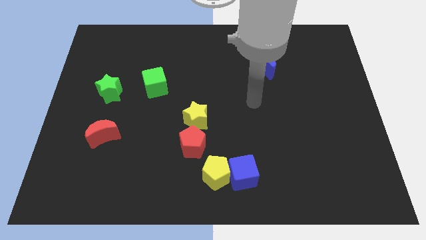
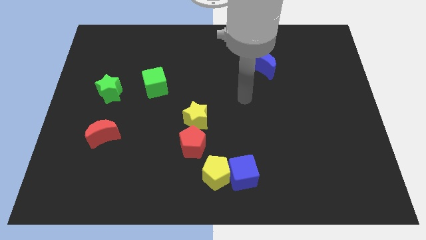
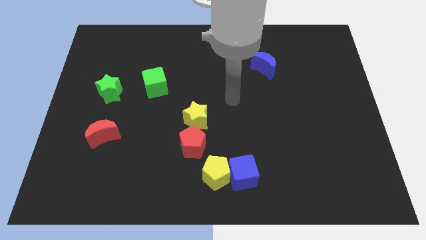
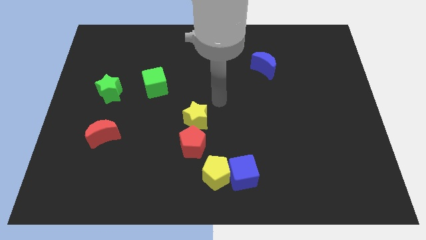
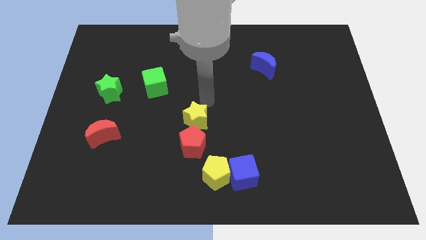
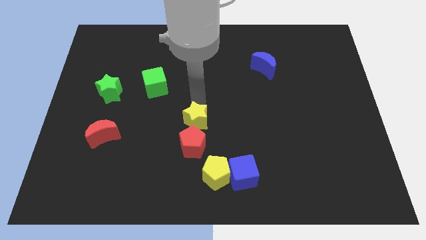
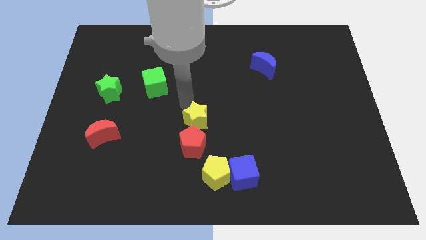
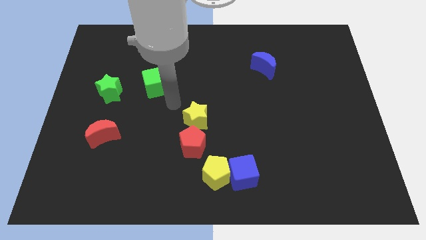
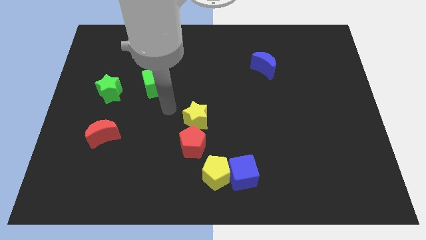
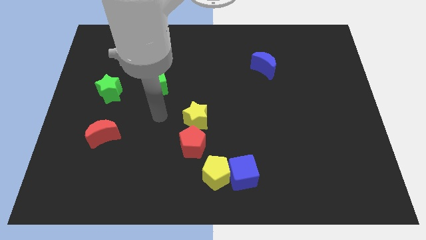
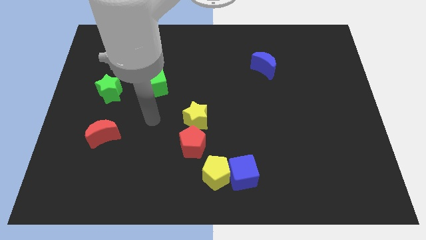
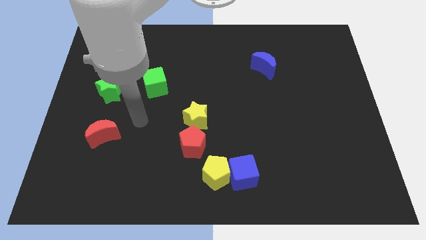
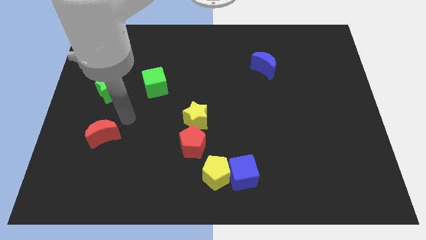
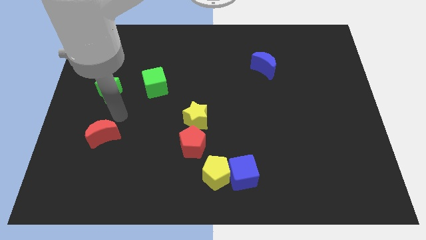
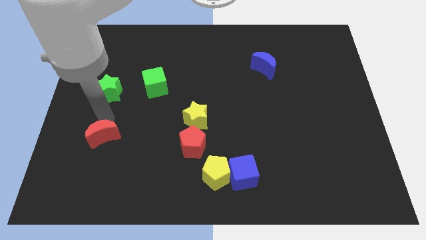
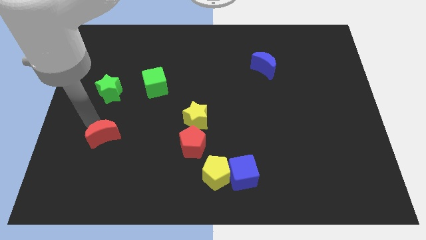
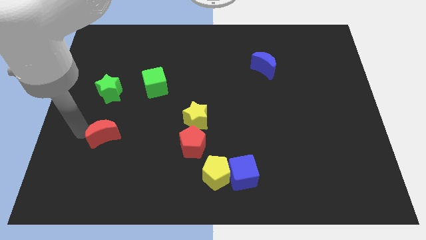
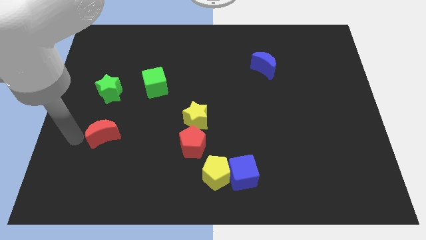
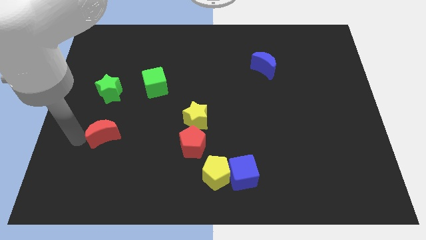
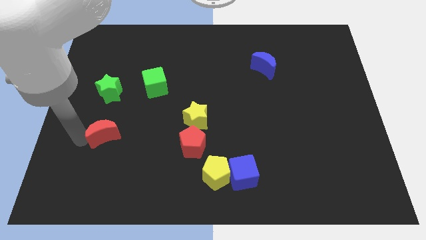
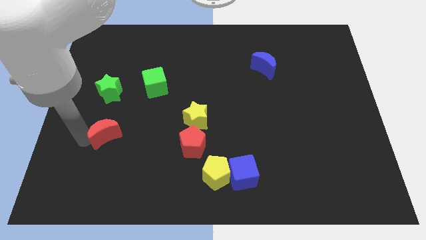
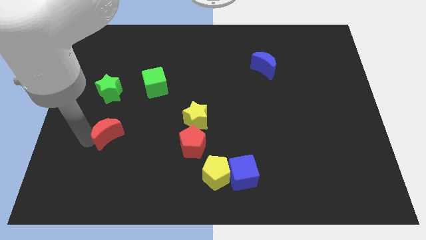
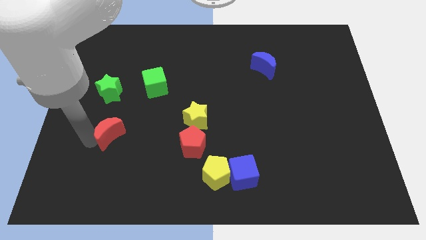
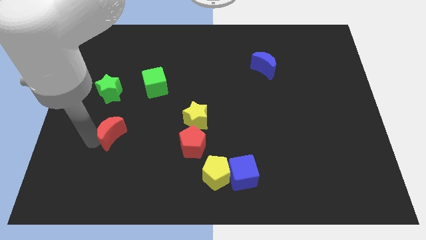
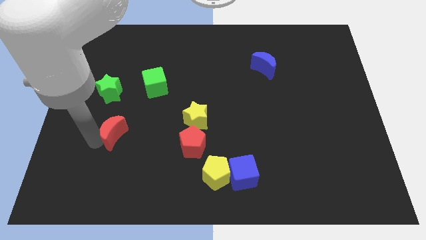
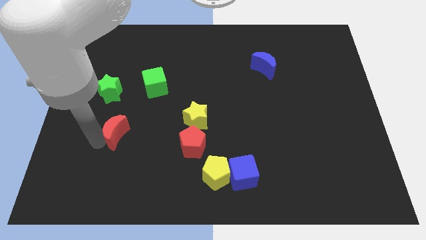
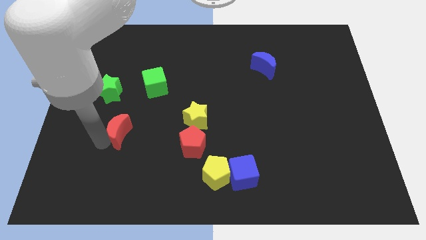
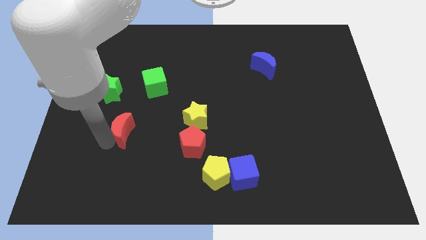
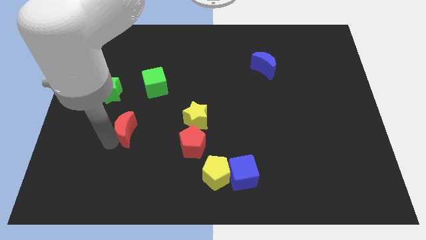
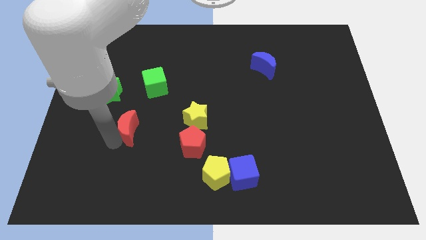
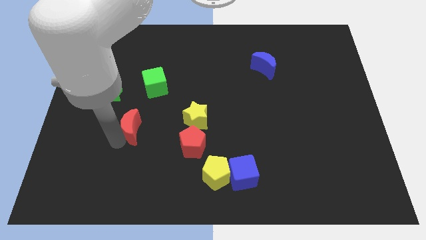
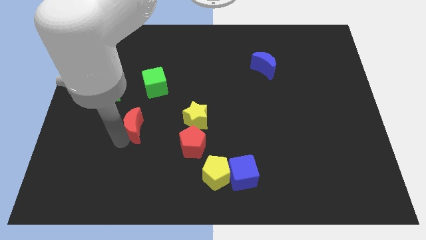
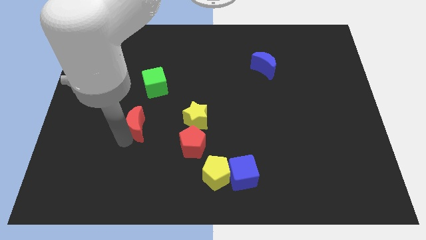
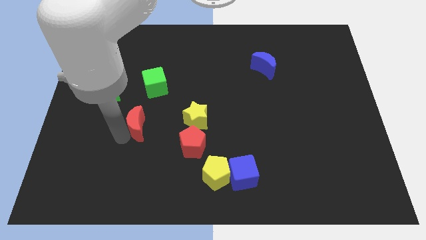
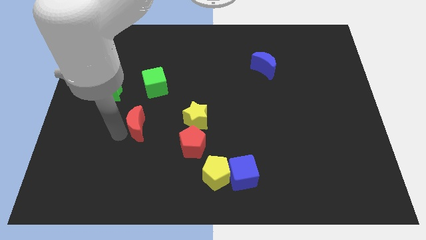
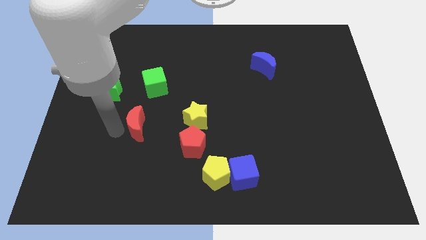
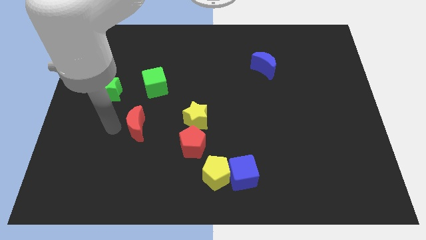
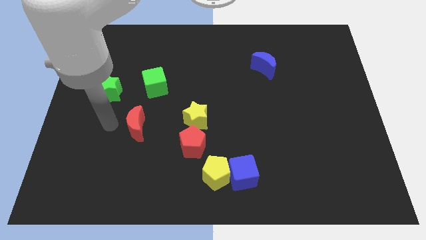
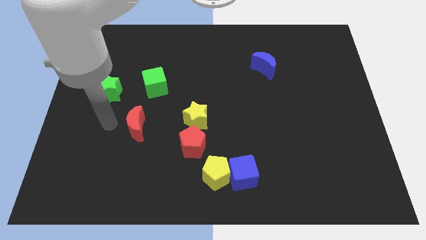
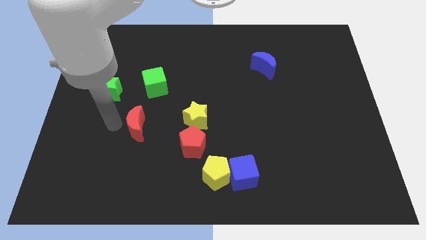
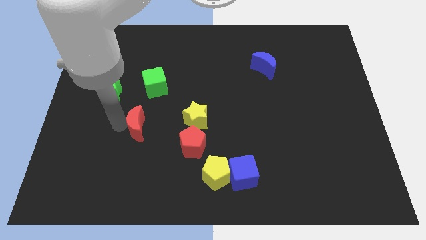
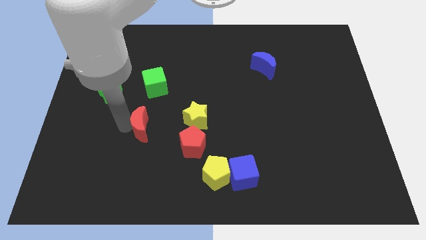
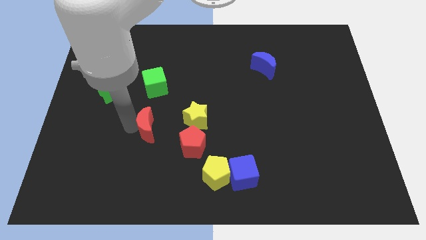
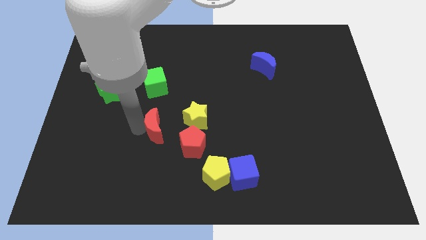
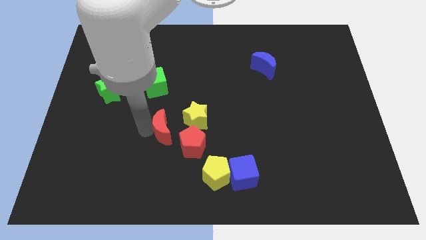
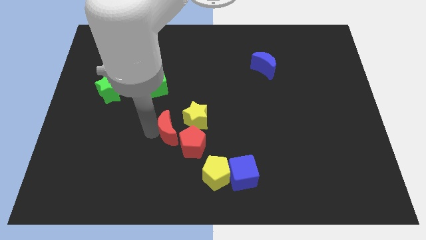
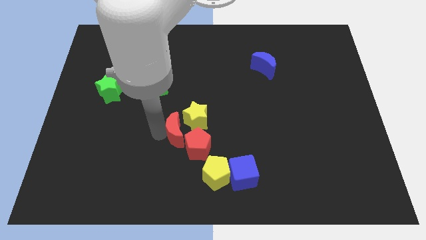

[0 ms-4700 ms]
move the red moon next to the yellow star

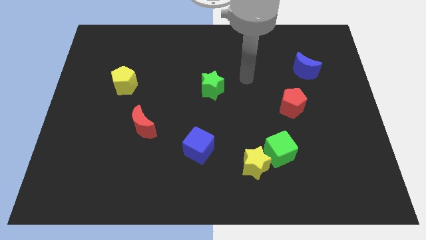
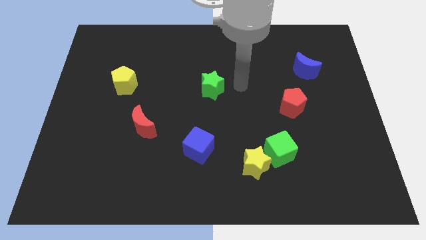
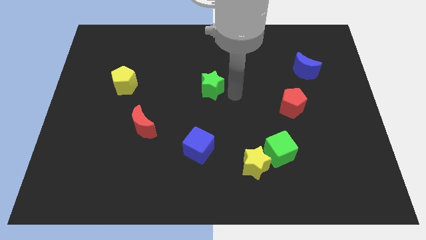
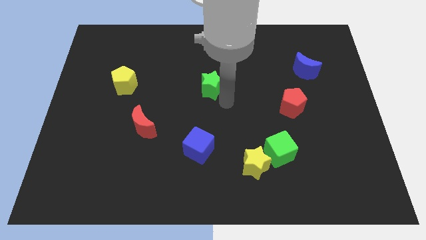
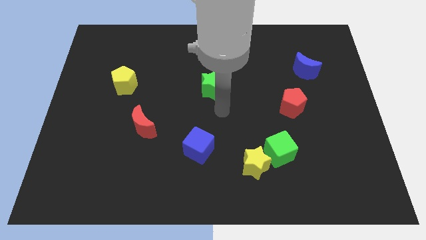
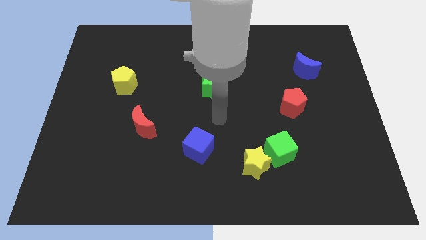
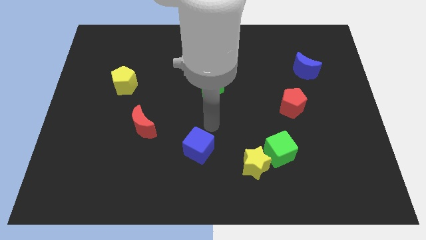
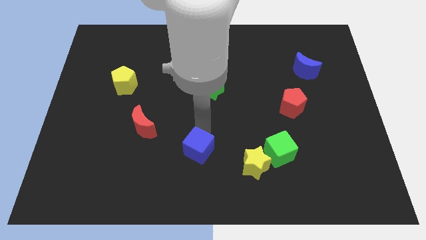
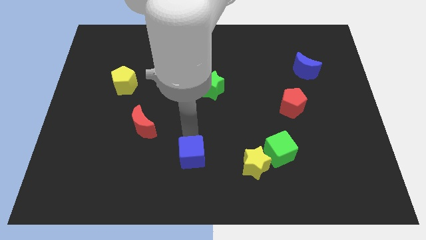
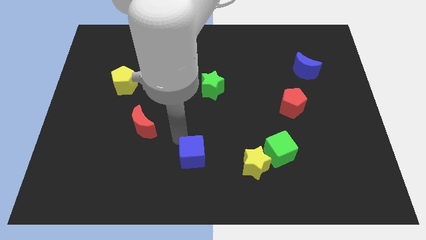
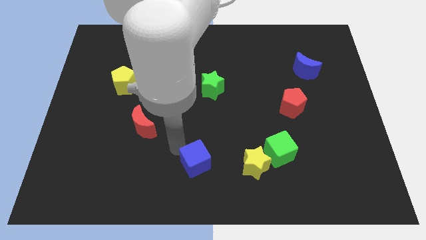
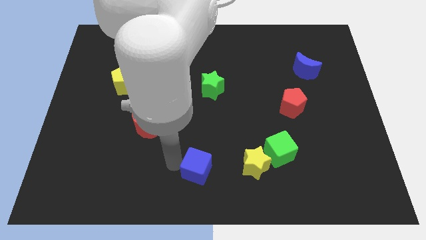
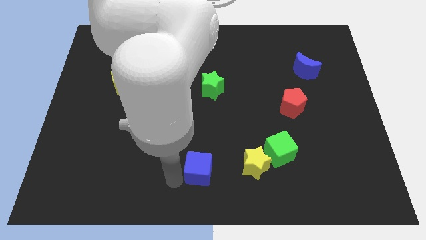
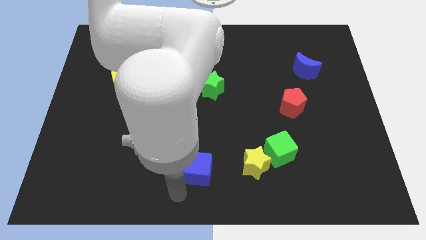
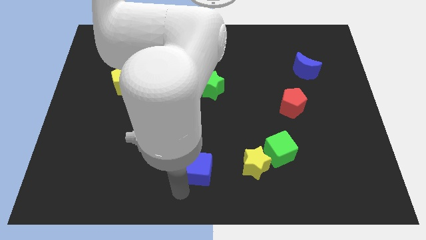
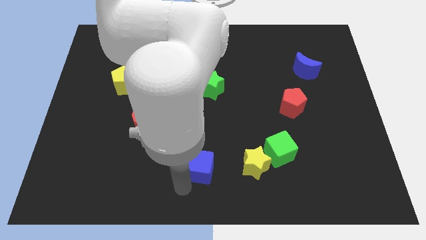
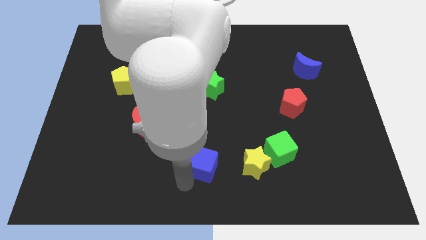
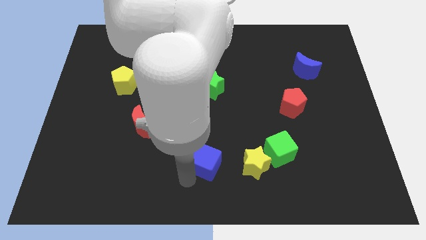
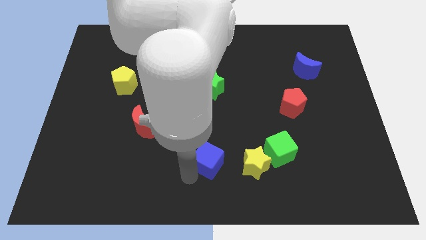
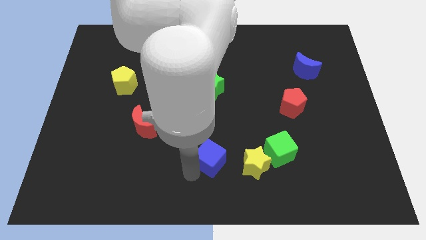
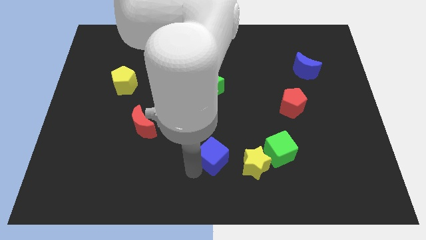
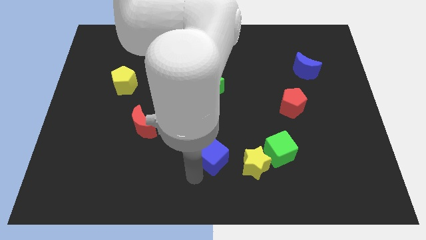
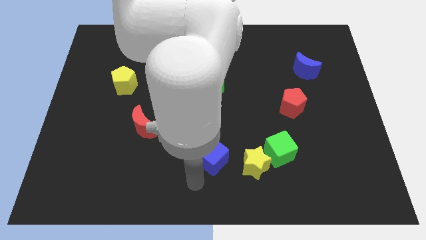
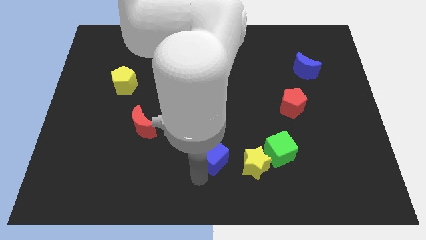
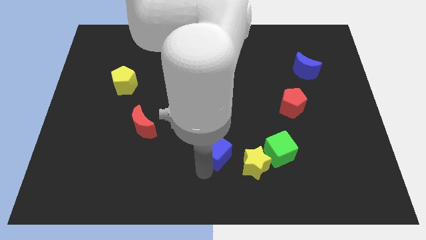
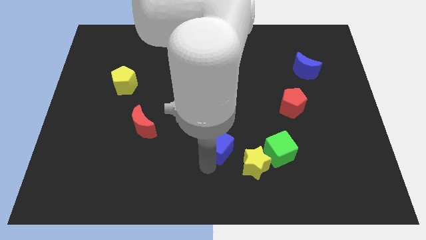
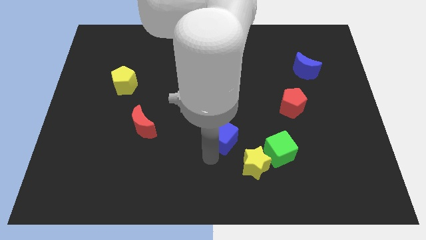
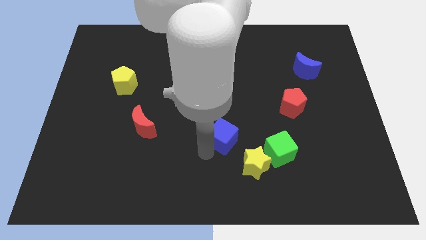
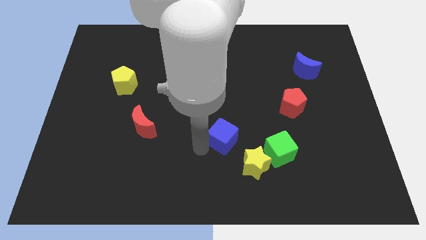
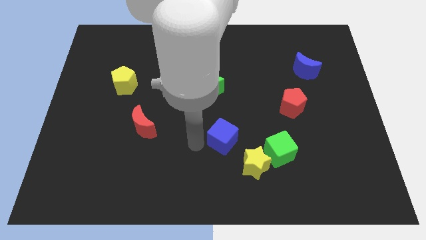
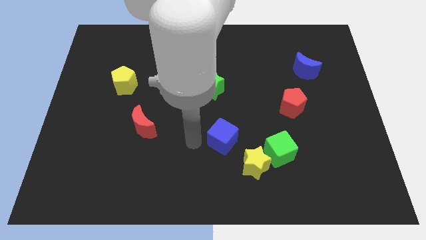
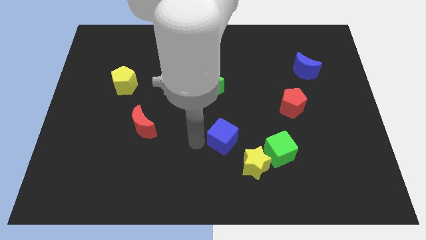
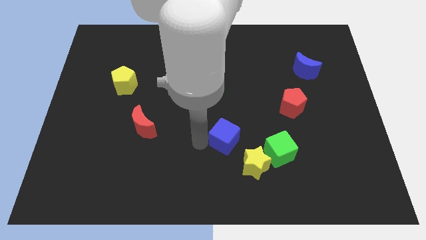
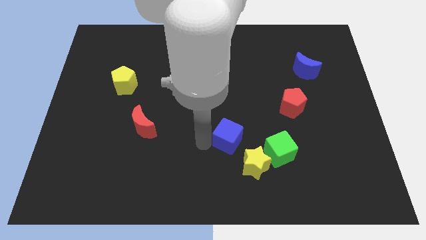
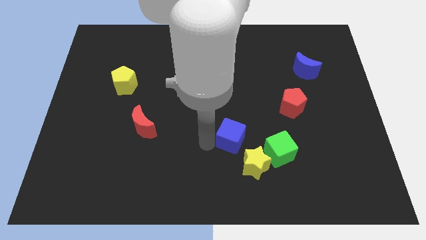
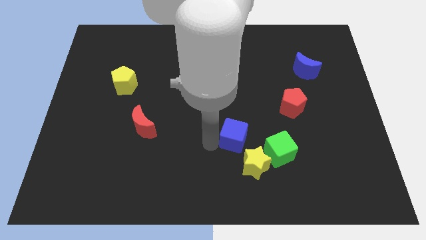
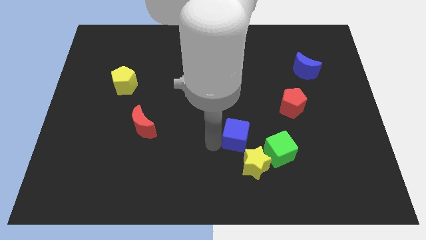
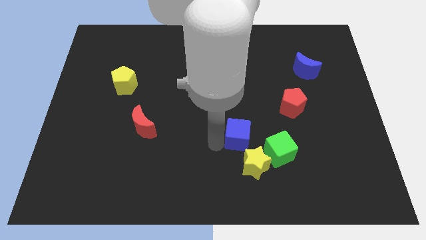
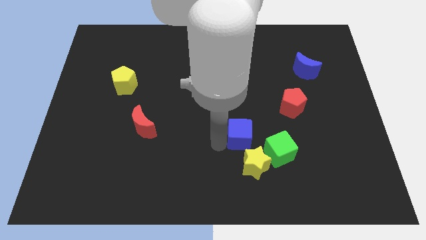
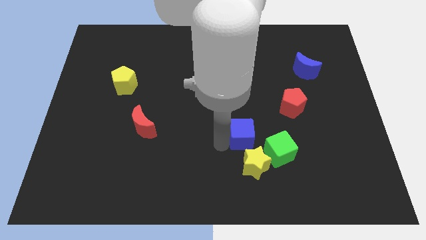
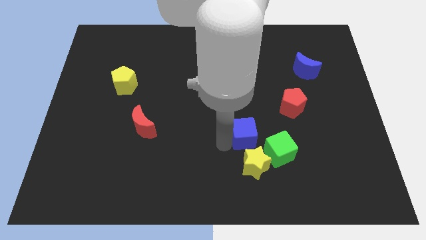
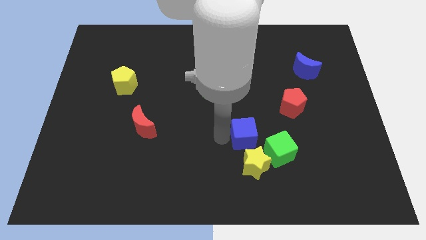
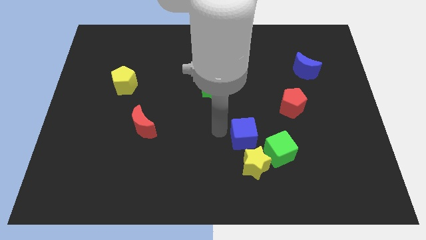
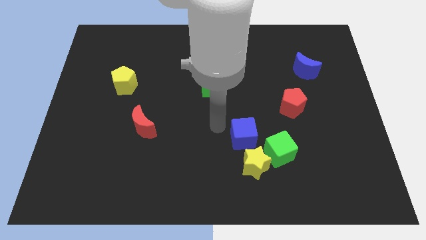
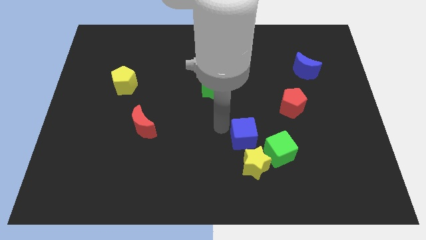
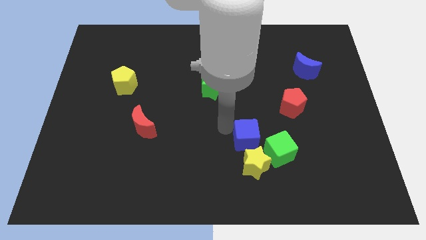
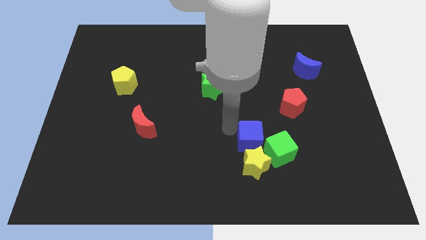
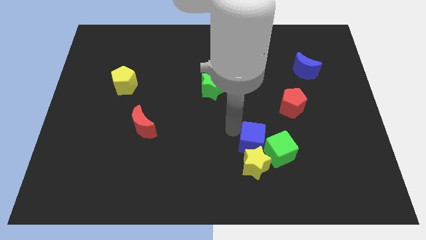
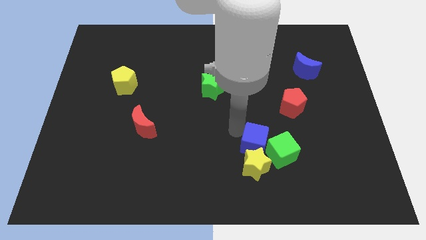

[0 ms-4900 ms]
push the blue cube towards the green cube
